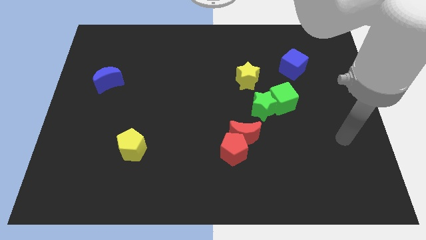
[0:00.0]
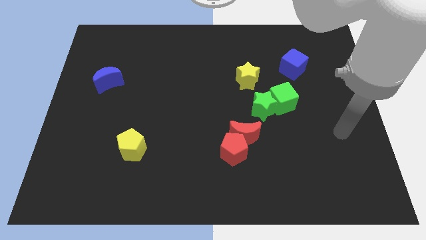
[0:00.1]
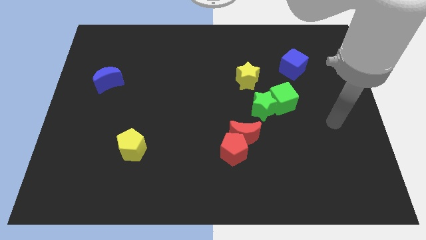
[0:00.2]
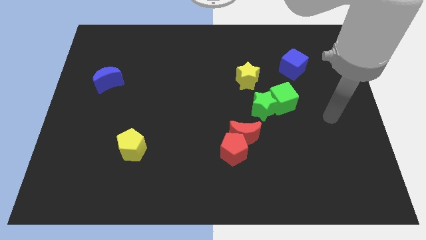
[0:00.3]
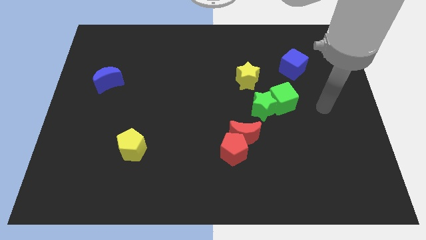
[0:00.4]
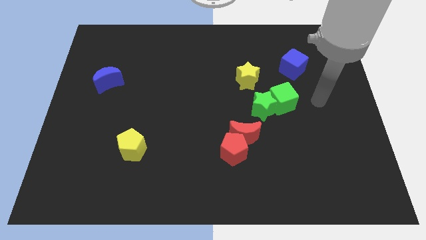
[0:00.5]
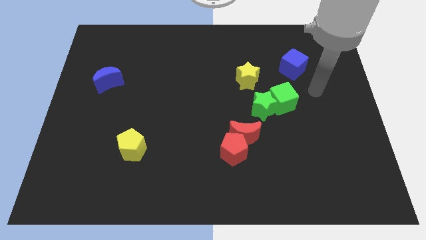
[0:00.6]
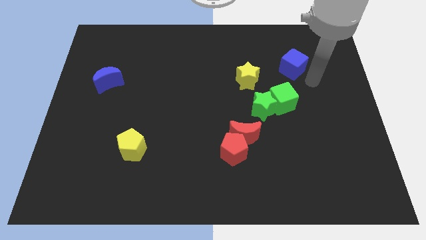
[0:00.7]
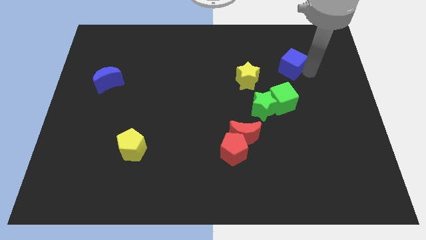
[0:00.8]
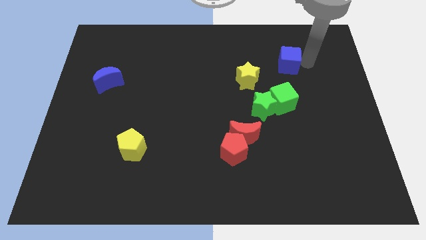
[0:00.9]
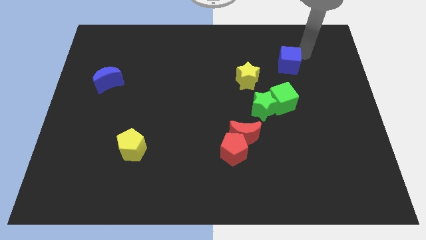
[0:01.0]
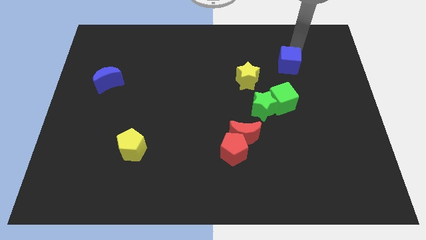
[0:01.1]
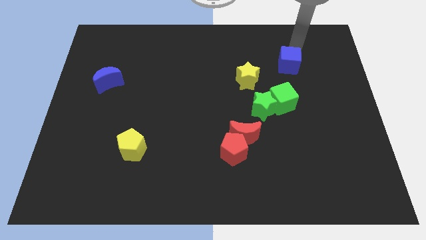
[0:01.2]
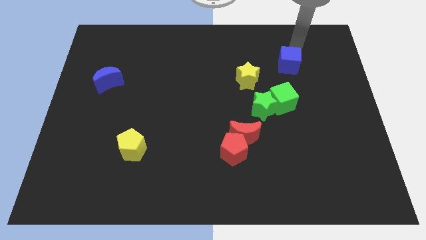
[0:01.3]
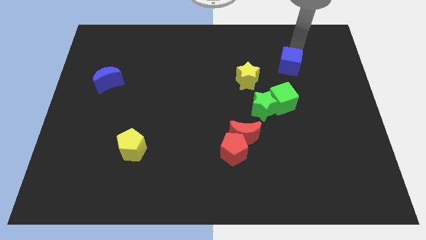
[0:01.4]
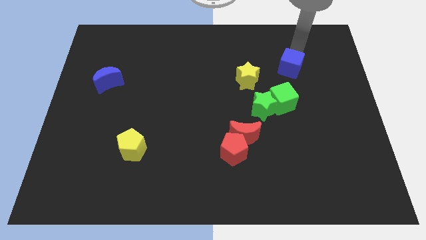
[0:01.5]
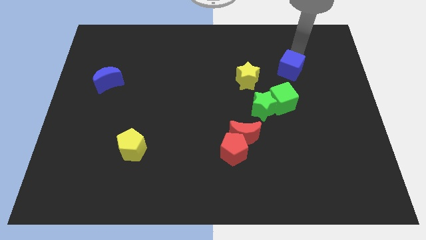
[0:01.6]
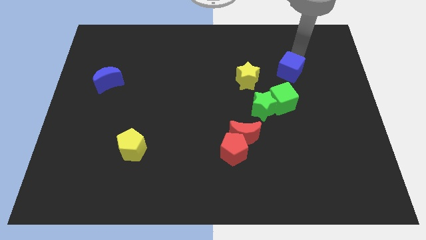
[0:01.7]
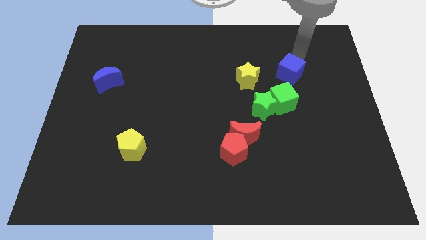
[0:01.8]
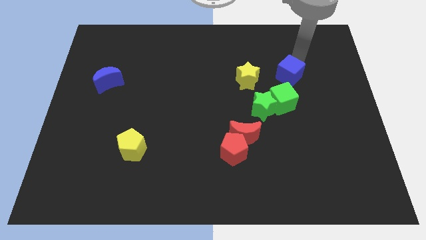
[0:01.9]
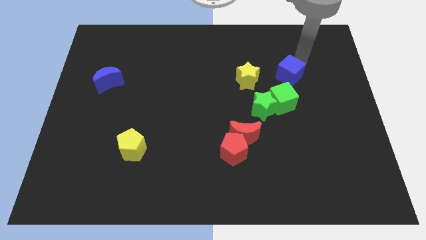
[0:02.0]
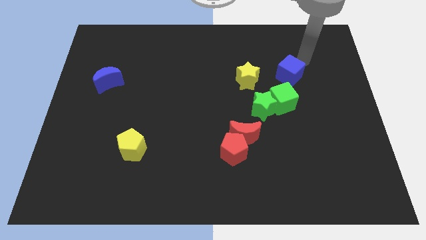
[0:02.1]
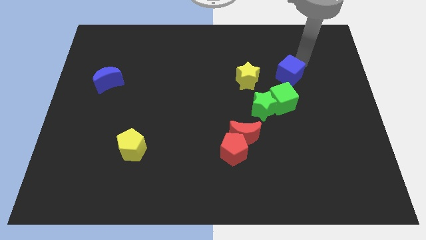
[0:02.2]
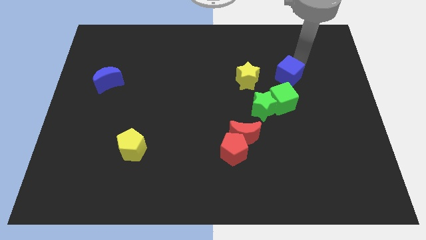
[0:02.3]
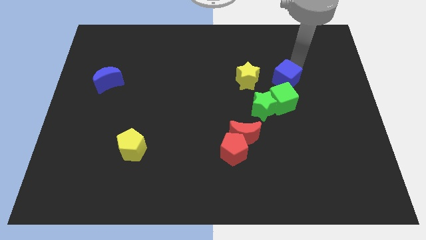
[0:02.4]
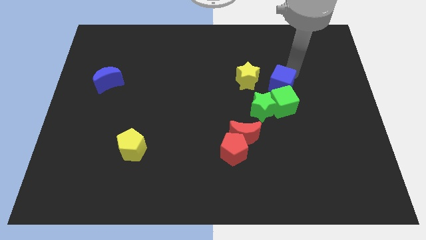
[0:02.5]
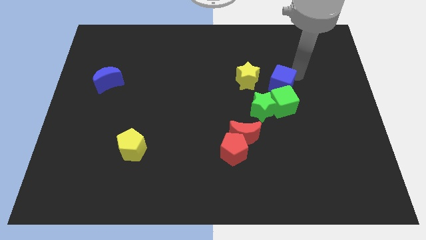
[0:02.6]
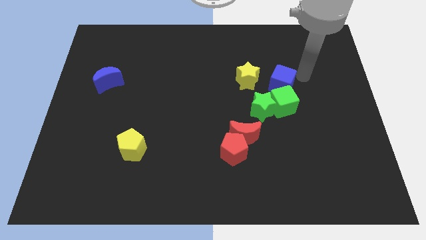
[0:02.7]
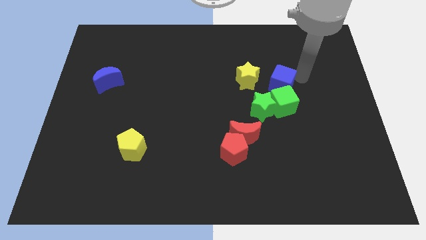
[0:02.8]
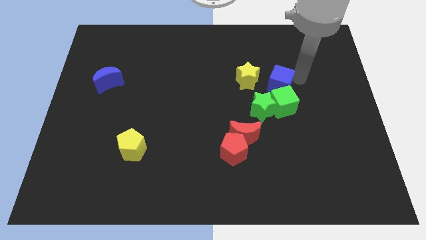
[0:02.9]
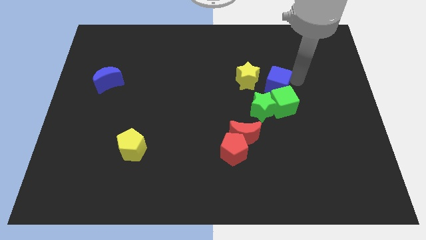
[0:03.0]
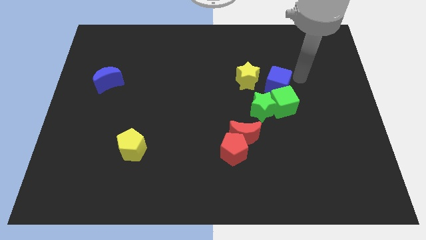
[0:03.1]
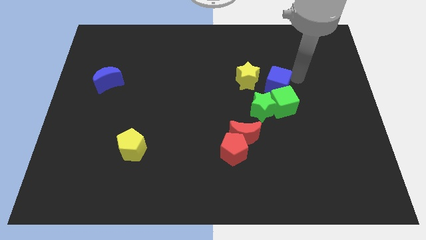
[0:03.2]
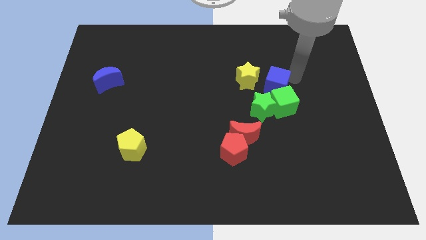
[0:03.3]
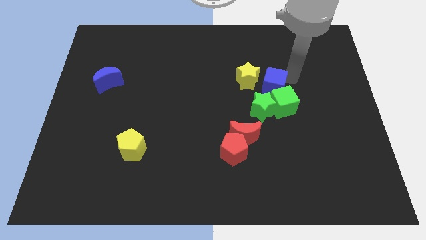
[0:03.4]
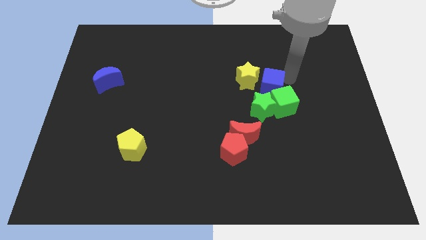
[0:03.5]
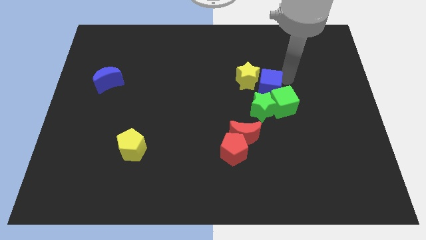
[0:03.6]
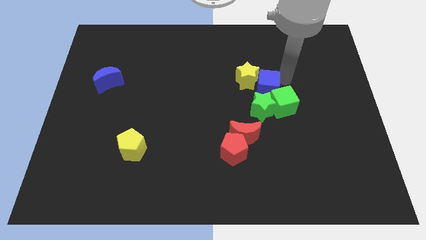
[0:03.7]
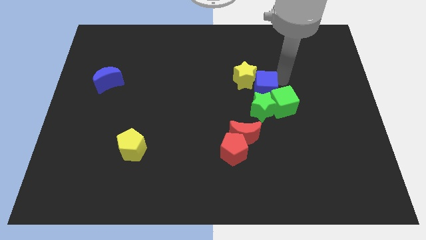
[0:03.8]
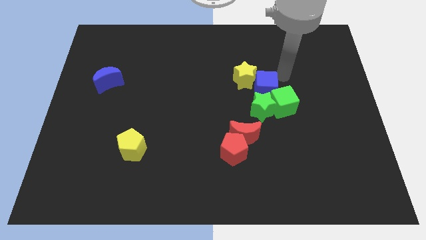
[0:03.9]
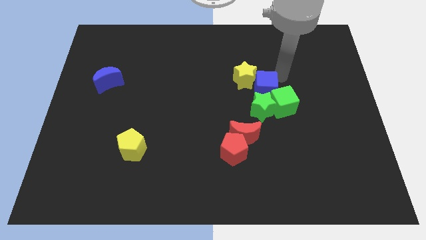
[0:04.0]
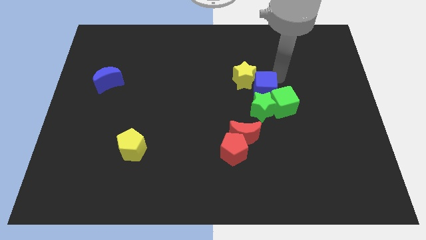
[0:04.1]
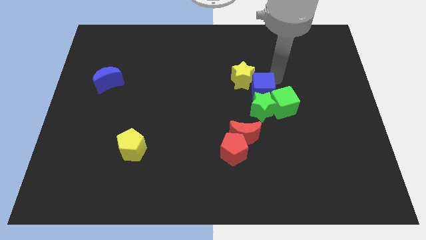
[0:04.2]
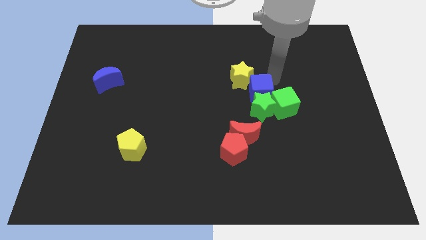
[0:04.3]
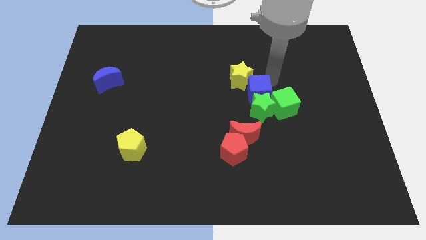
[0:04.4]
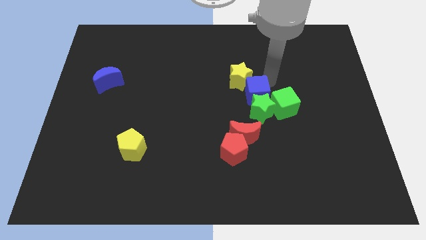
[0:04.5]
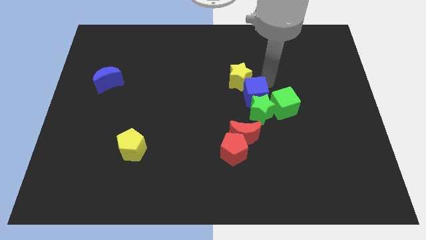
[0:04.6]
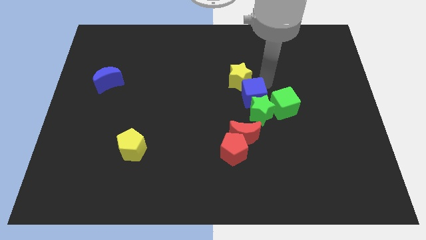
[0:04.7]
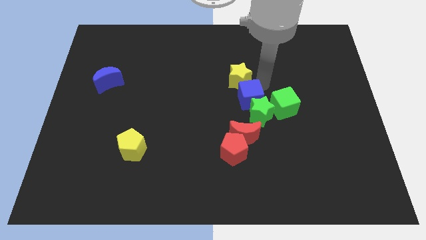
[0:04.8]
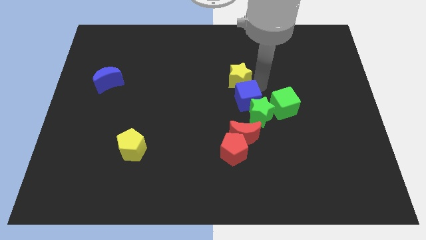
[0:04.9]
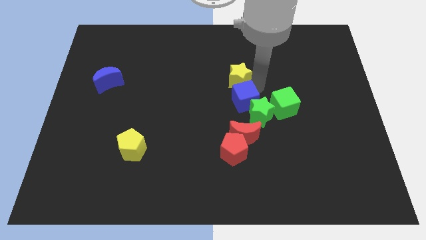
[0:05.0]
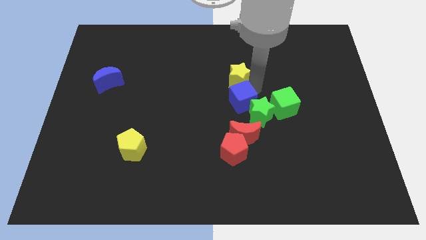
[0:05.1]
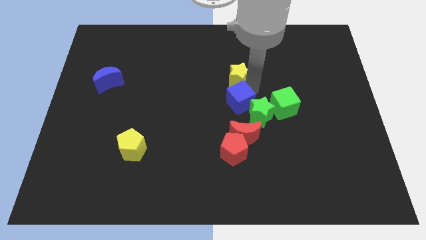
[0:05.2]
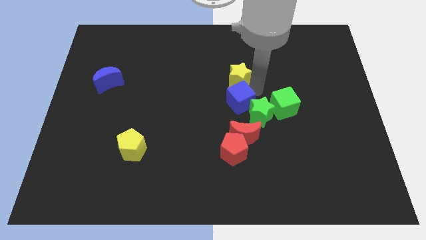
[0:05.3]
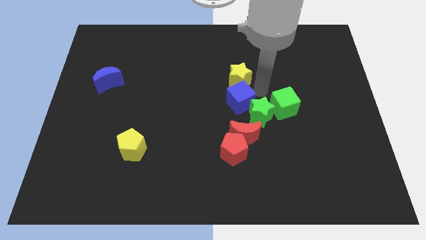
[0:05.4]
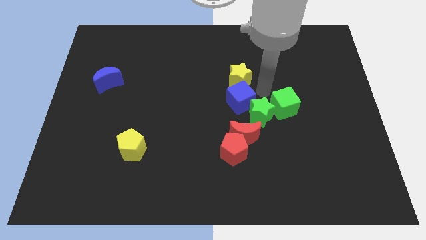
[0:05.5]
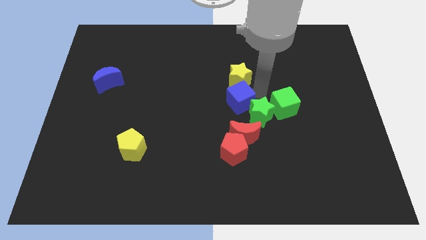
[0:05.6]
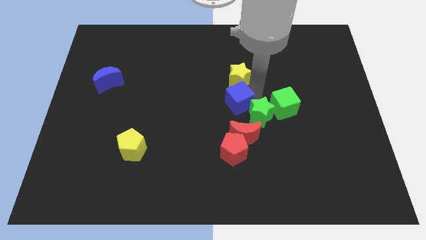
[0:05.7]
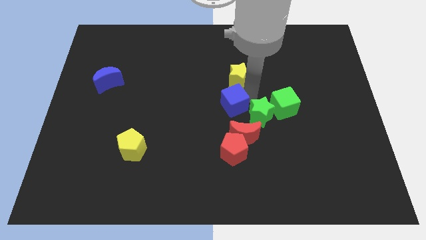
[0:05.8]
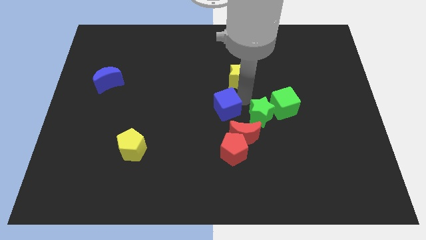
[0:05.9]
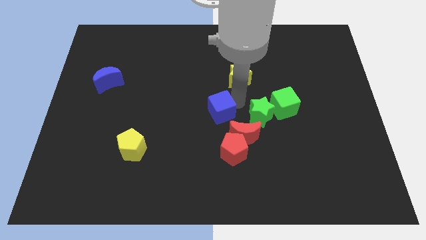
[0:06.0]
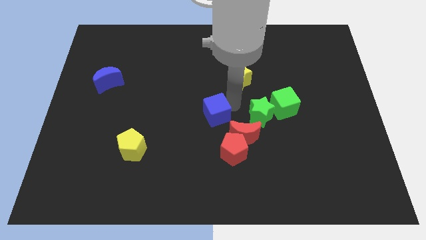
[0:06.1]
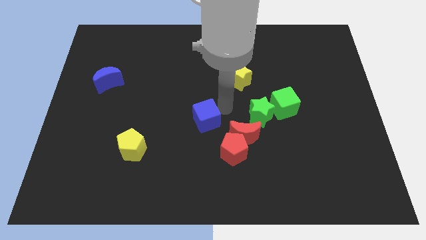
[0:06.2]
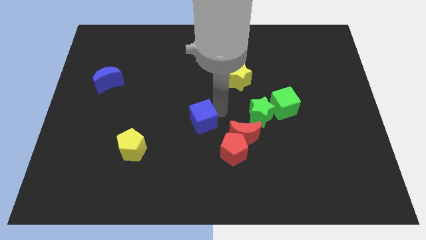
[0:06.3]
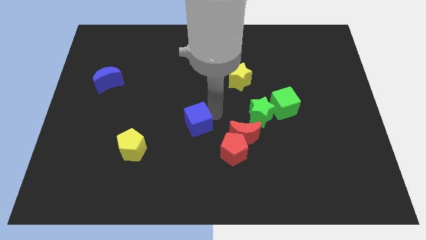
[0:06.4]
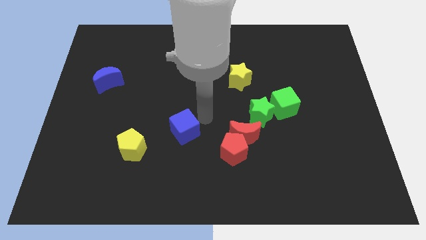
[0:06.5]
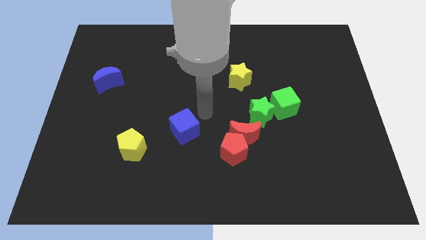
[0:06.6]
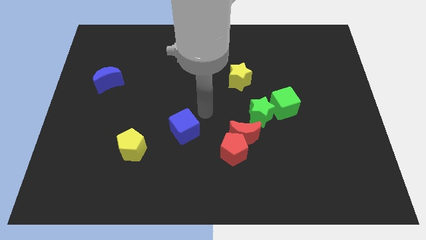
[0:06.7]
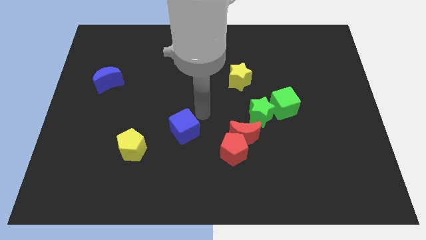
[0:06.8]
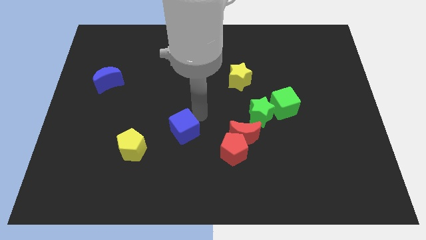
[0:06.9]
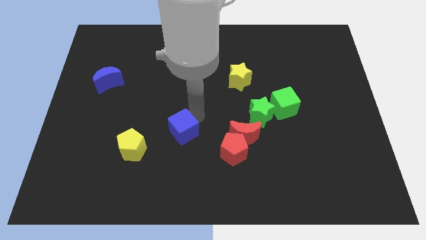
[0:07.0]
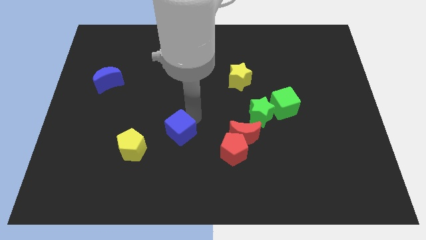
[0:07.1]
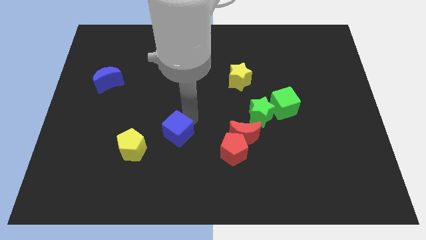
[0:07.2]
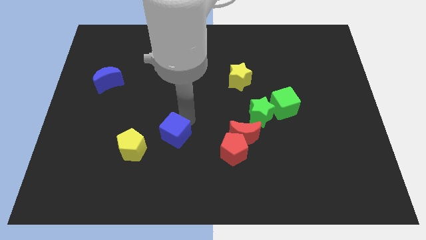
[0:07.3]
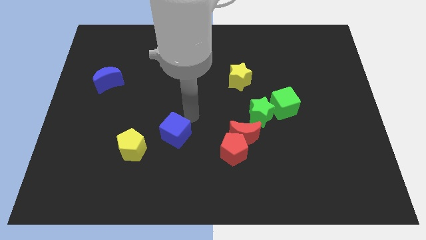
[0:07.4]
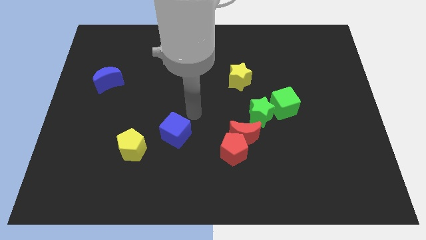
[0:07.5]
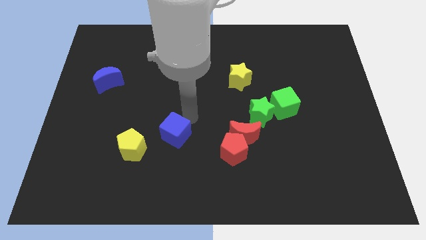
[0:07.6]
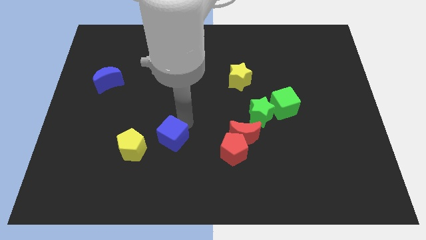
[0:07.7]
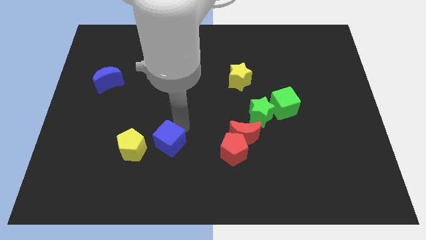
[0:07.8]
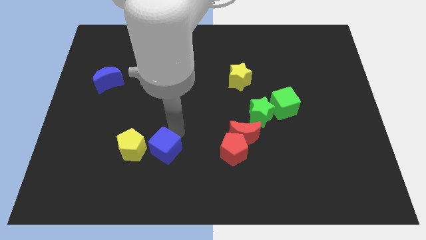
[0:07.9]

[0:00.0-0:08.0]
put the blue cube to the bottom right side of the yellow pentagon
